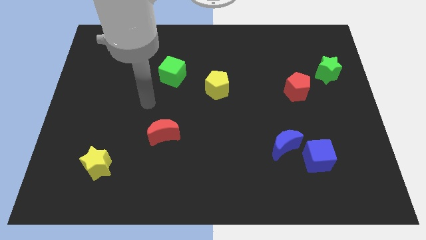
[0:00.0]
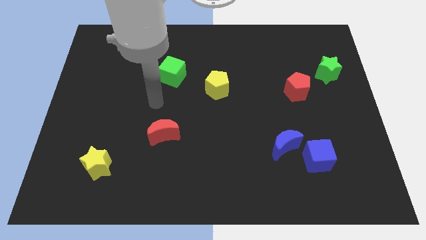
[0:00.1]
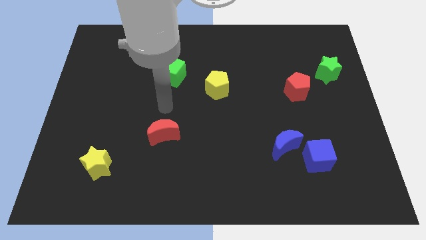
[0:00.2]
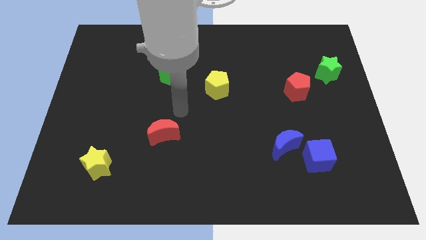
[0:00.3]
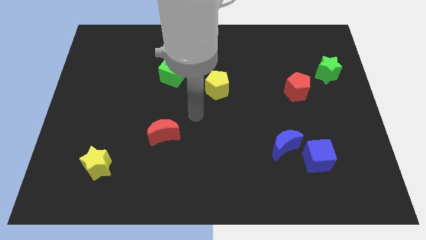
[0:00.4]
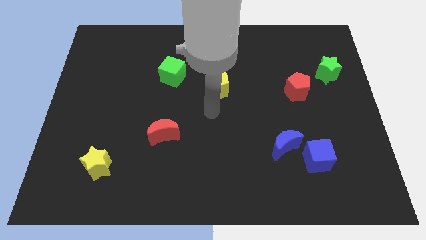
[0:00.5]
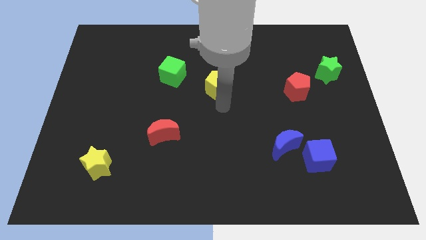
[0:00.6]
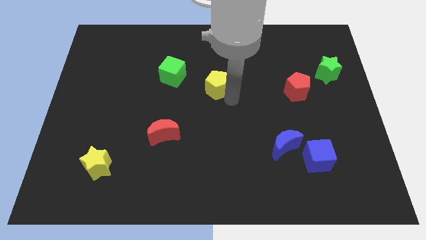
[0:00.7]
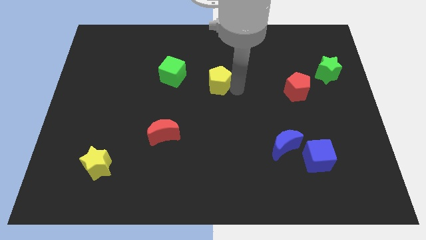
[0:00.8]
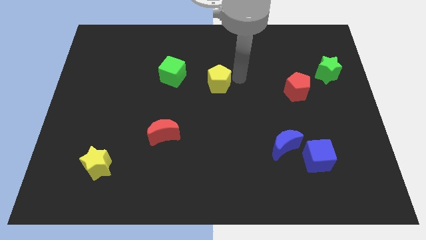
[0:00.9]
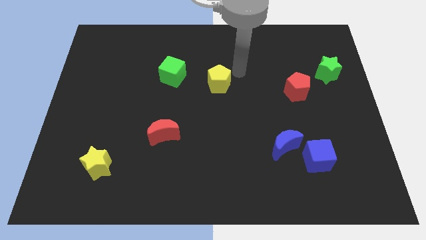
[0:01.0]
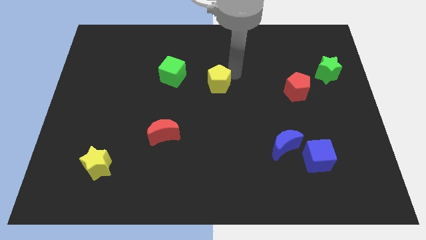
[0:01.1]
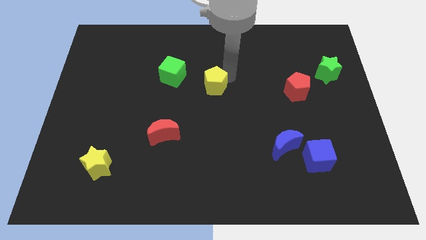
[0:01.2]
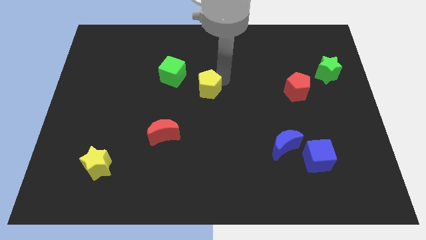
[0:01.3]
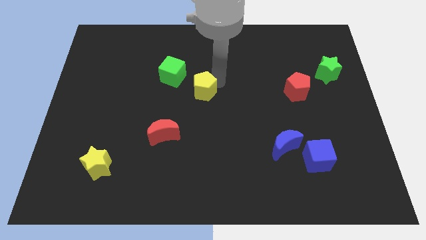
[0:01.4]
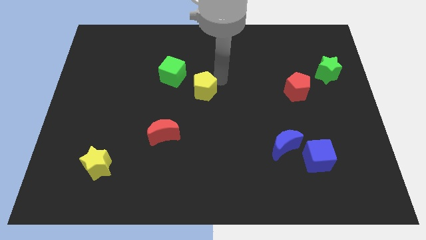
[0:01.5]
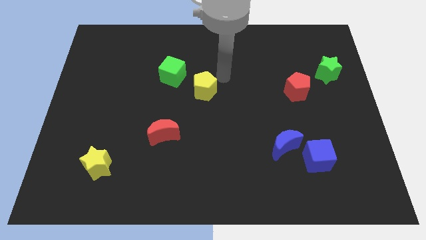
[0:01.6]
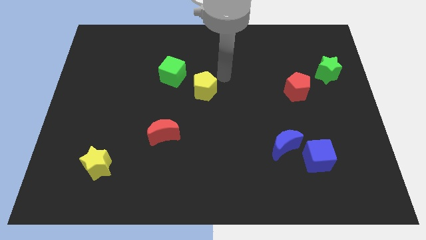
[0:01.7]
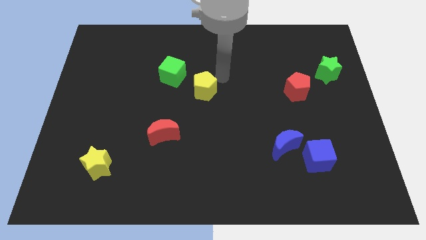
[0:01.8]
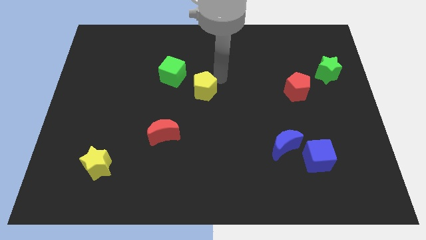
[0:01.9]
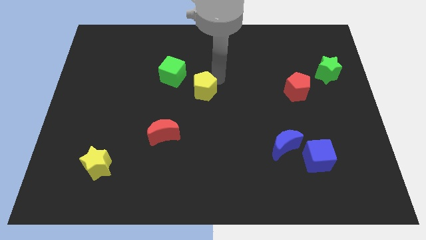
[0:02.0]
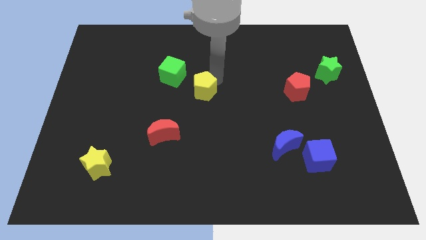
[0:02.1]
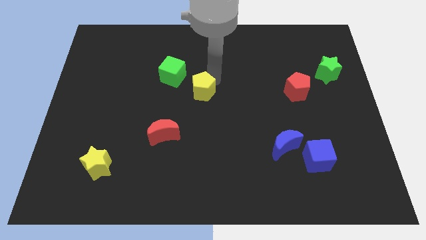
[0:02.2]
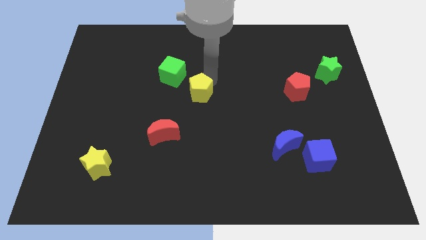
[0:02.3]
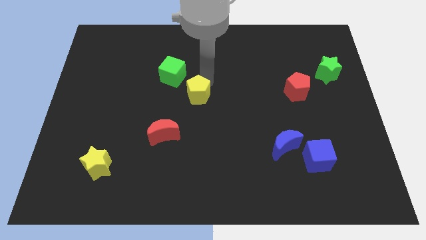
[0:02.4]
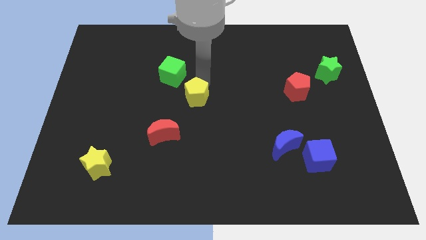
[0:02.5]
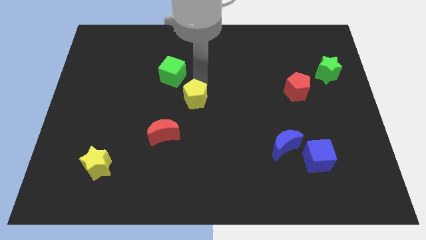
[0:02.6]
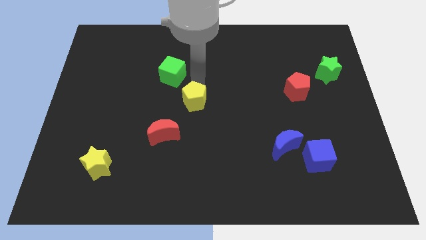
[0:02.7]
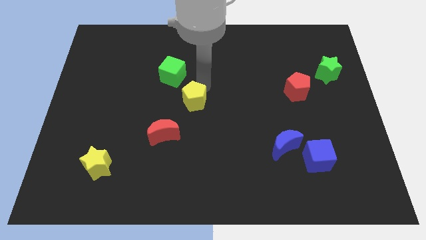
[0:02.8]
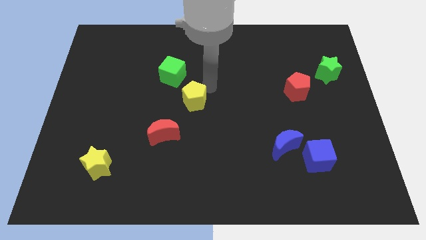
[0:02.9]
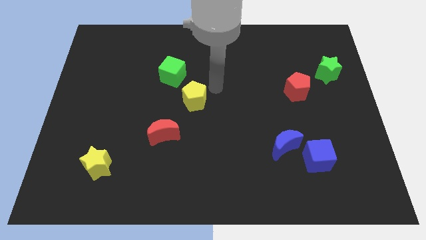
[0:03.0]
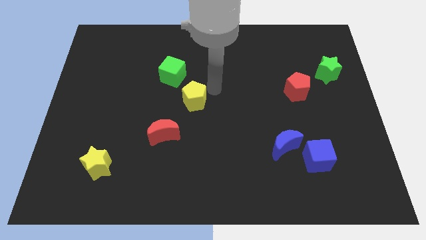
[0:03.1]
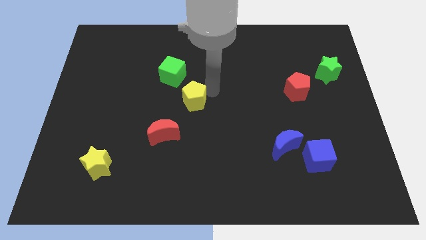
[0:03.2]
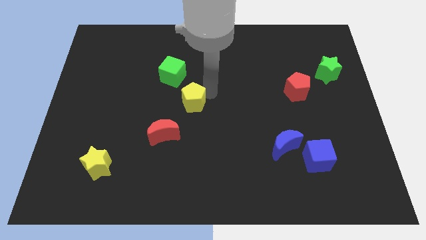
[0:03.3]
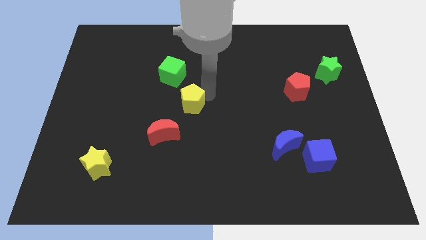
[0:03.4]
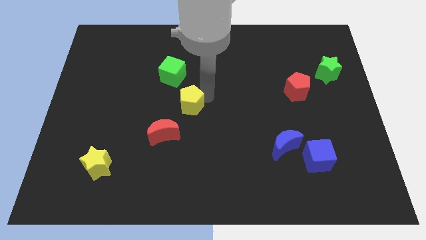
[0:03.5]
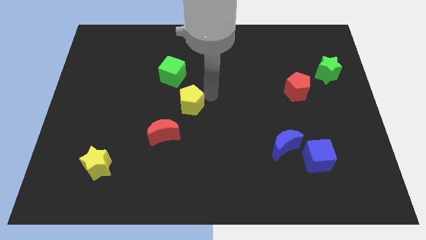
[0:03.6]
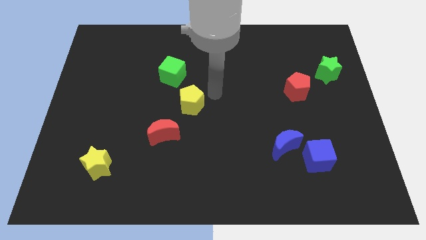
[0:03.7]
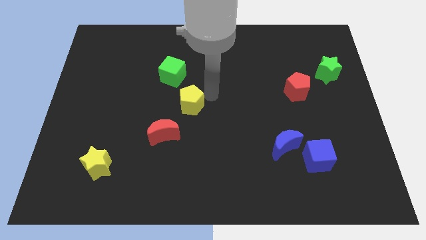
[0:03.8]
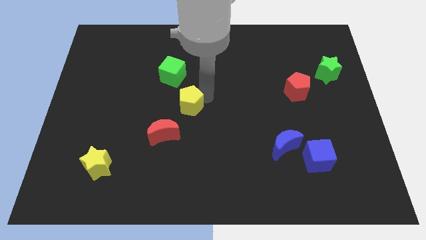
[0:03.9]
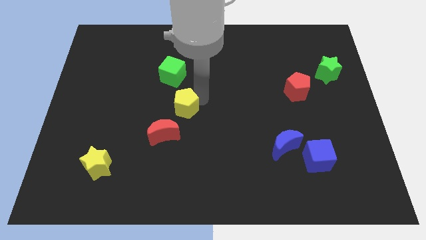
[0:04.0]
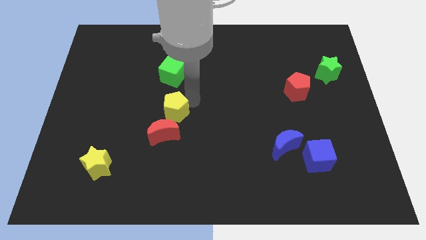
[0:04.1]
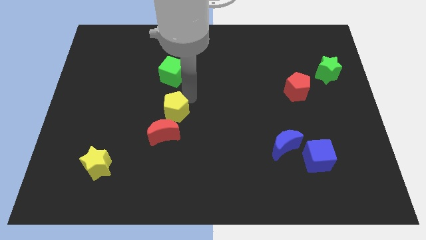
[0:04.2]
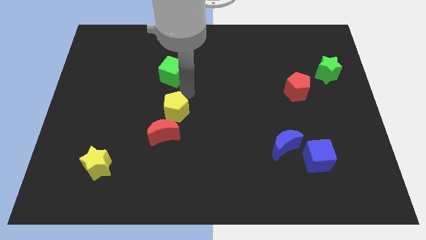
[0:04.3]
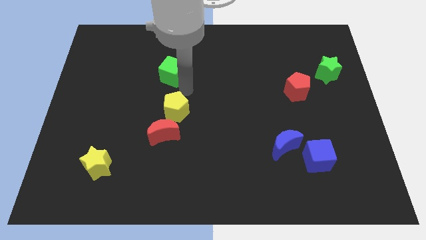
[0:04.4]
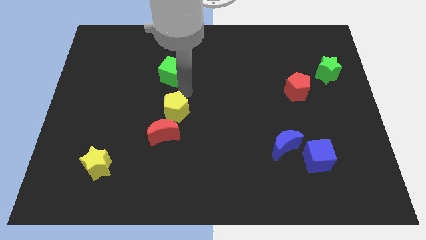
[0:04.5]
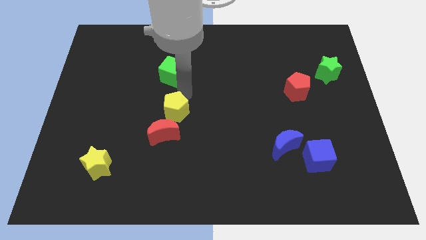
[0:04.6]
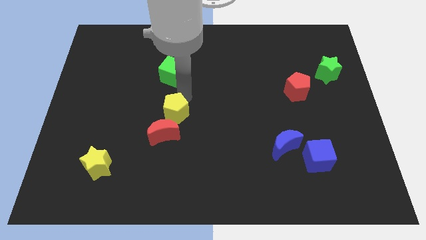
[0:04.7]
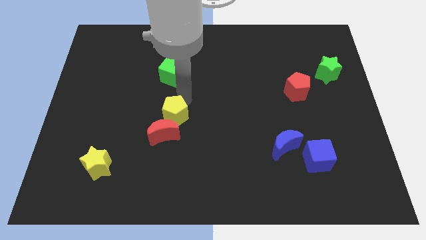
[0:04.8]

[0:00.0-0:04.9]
move the yellow pentagon towards the red moon

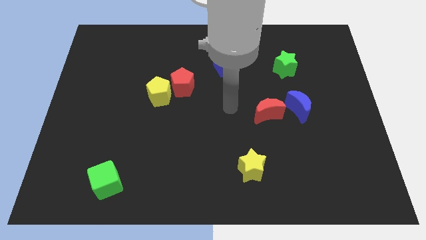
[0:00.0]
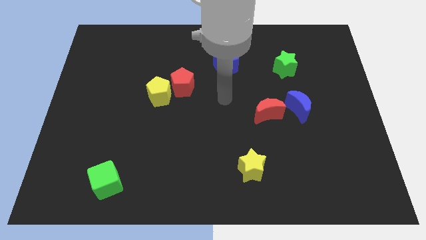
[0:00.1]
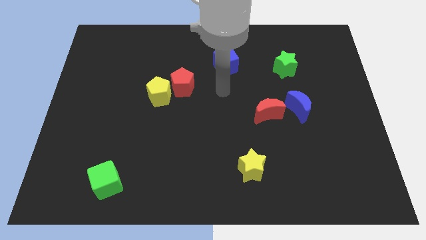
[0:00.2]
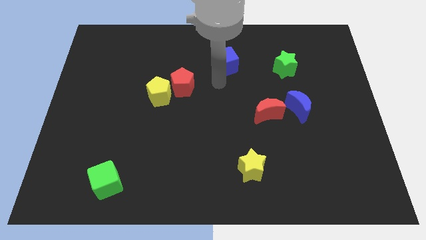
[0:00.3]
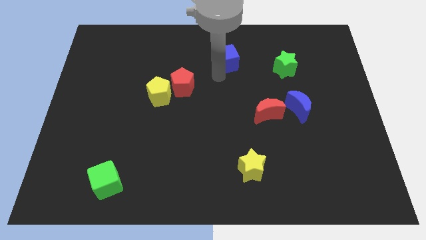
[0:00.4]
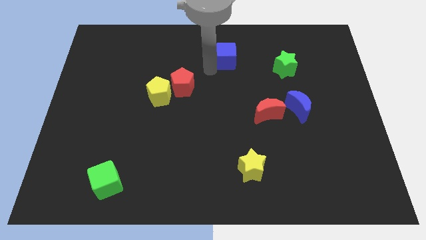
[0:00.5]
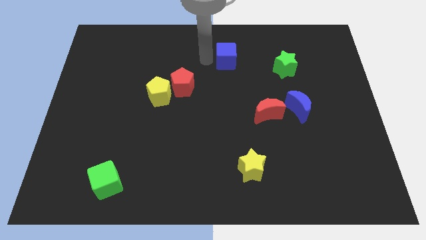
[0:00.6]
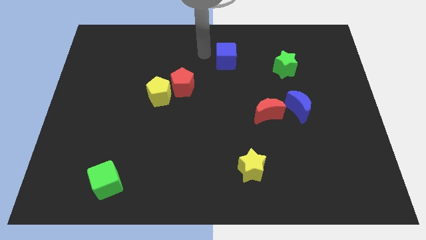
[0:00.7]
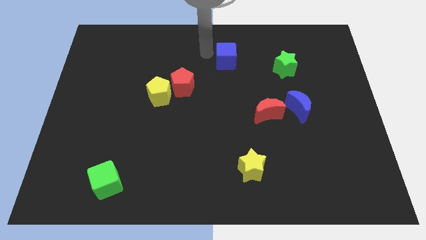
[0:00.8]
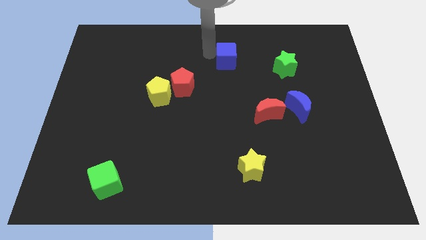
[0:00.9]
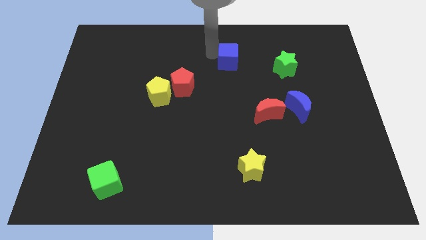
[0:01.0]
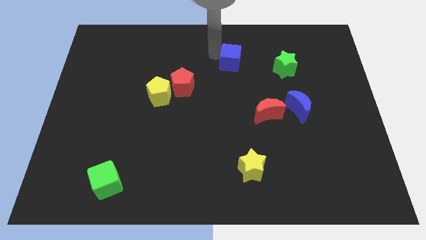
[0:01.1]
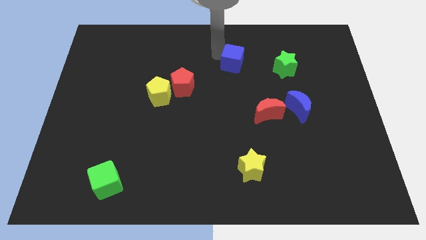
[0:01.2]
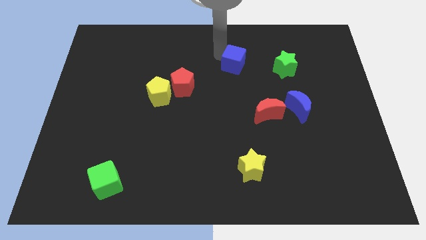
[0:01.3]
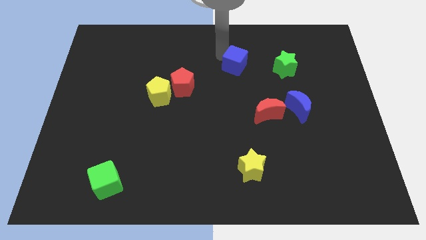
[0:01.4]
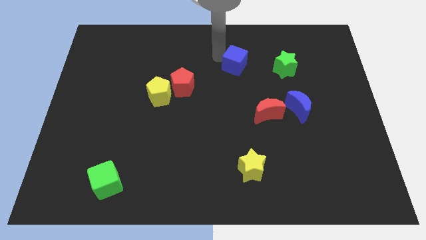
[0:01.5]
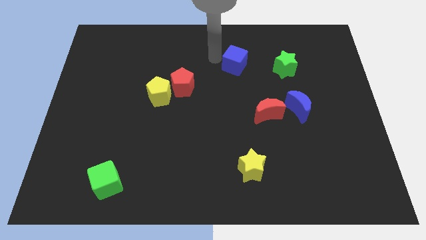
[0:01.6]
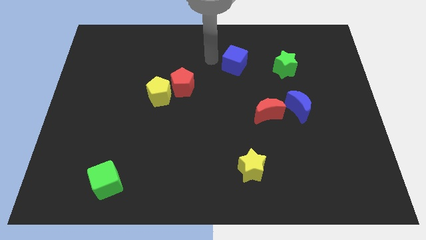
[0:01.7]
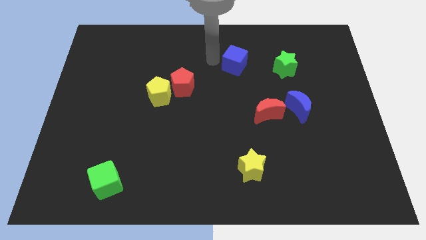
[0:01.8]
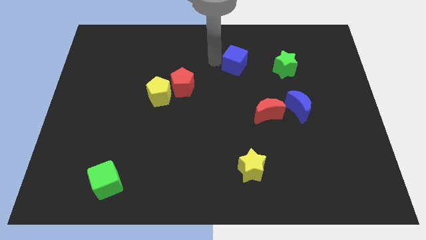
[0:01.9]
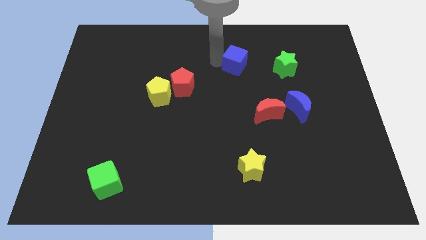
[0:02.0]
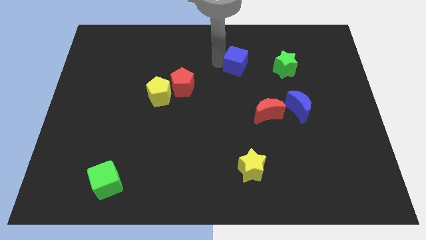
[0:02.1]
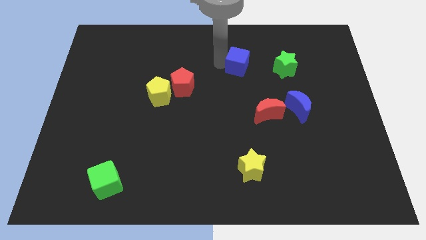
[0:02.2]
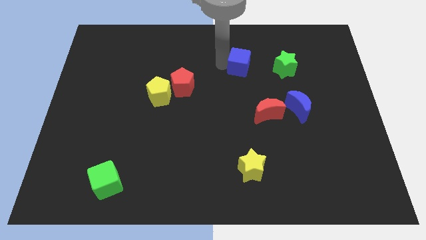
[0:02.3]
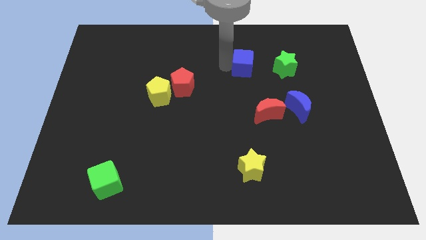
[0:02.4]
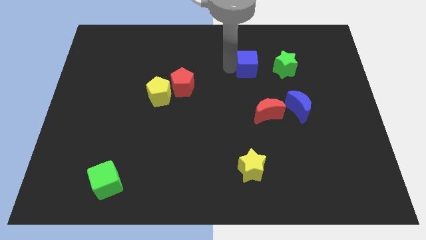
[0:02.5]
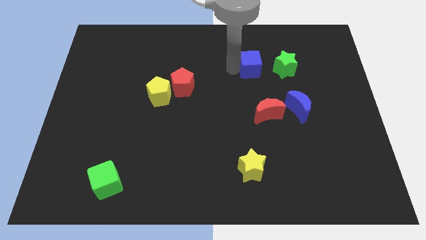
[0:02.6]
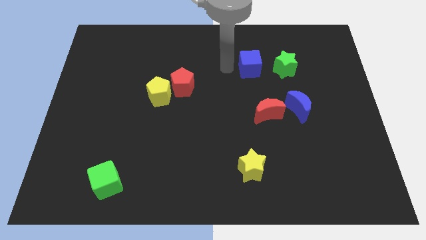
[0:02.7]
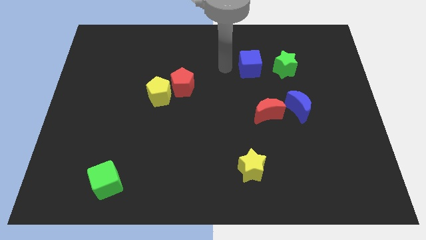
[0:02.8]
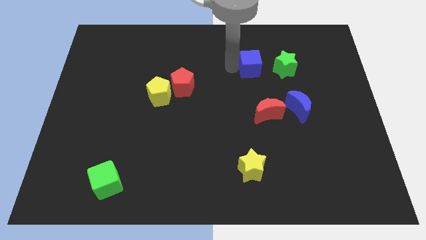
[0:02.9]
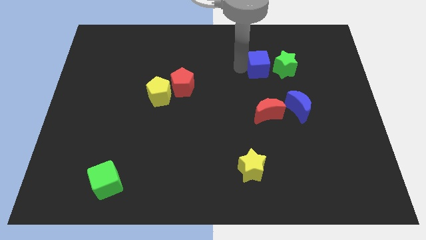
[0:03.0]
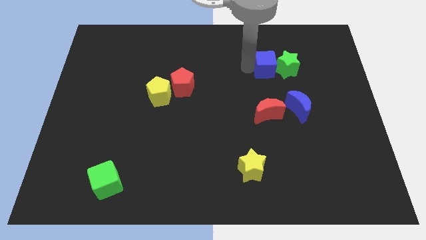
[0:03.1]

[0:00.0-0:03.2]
push the blue cube close to the green star
